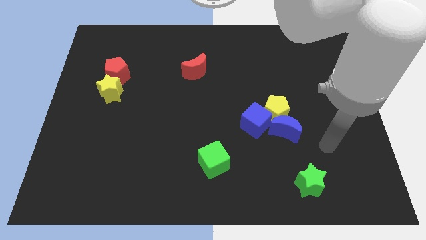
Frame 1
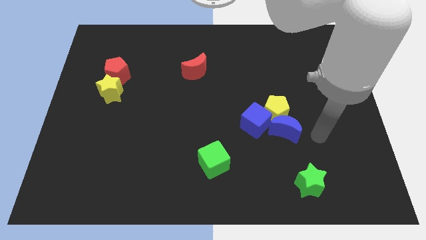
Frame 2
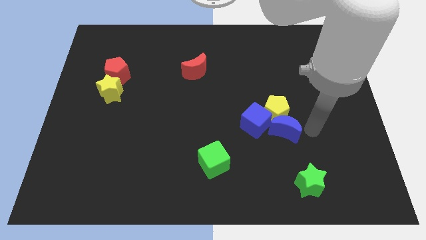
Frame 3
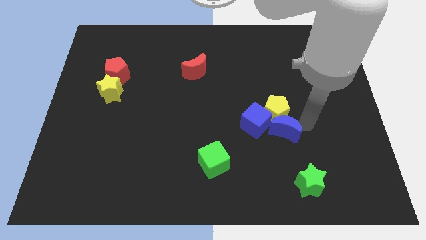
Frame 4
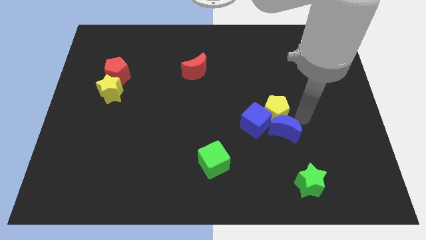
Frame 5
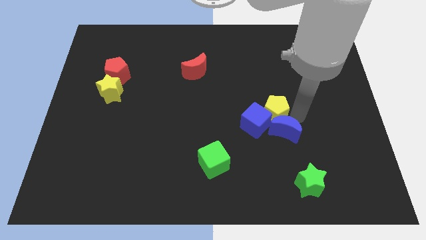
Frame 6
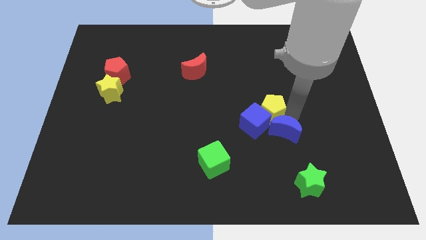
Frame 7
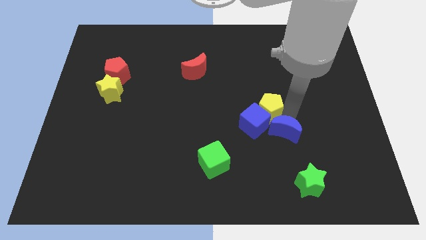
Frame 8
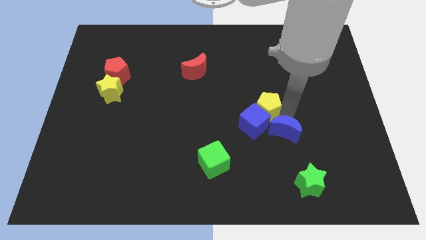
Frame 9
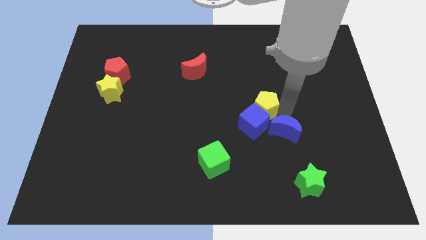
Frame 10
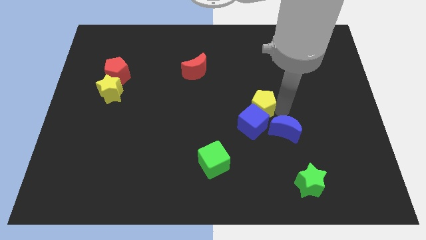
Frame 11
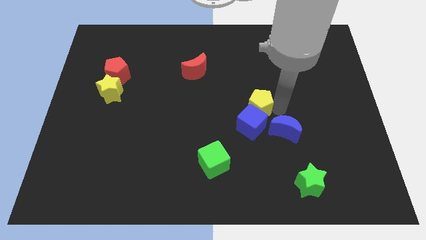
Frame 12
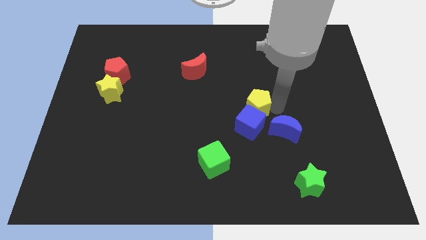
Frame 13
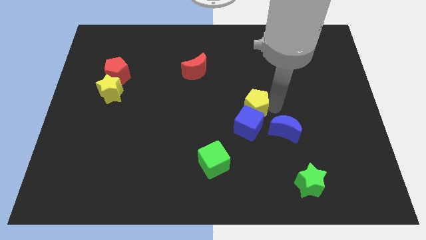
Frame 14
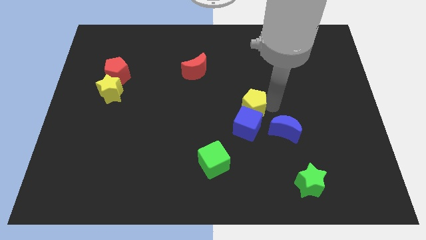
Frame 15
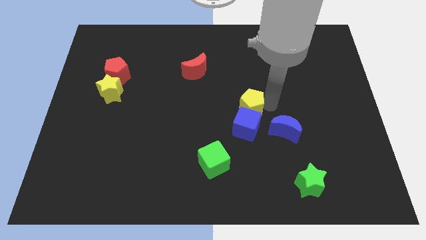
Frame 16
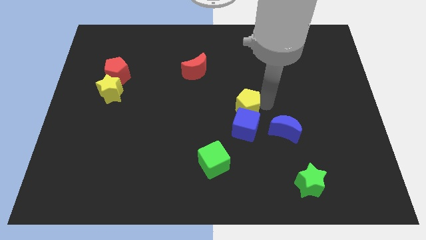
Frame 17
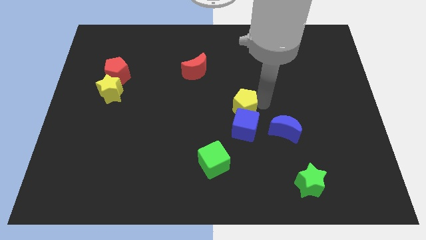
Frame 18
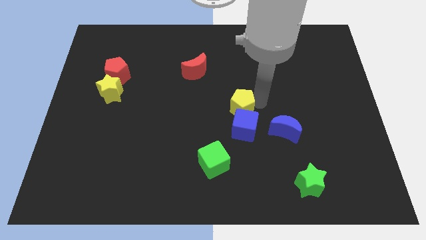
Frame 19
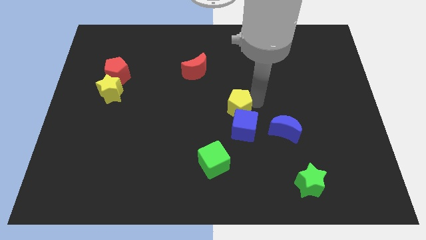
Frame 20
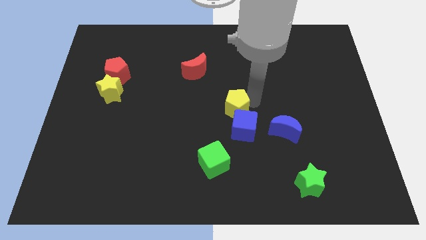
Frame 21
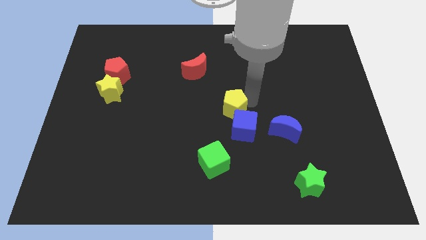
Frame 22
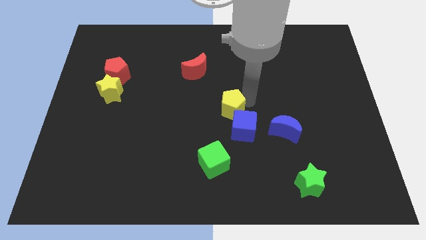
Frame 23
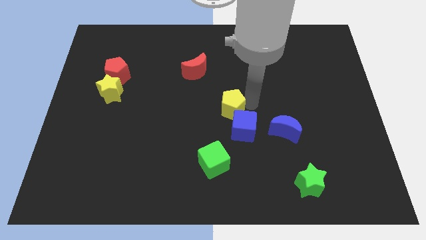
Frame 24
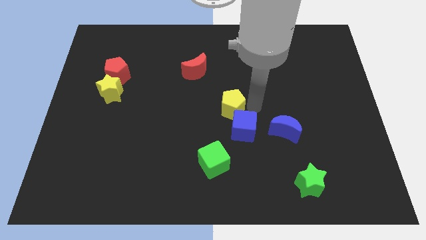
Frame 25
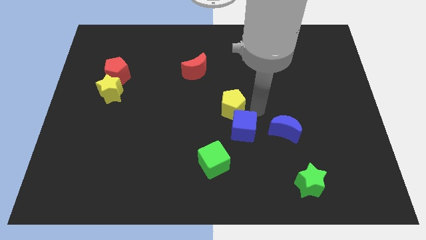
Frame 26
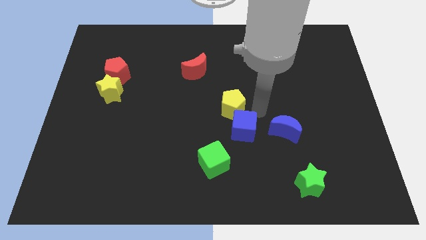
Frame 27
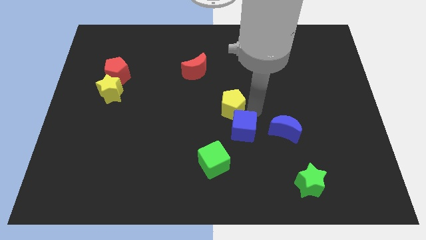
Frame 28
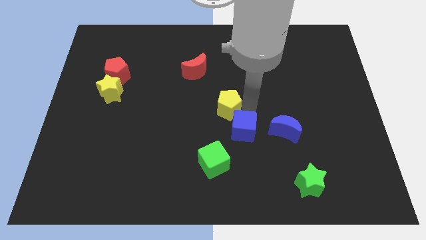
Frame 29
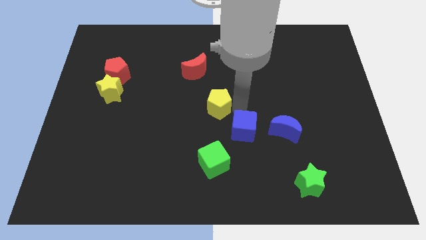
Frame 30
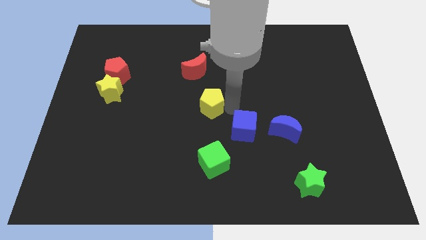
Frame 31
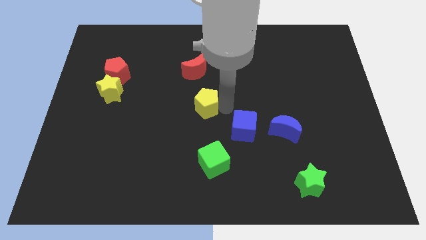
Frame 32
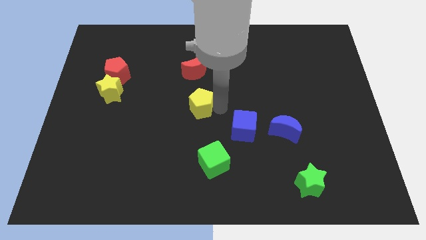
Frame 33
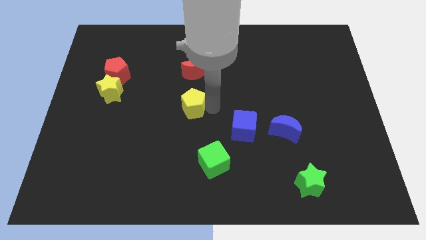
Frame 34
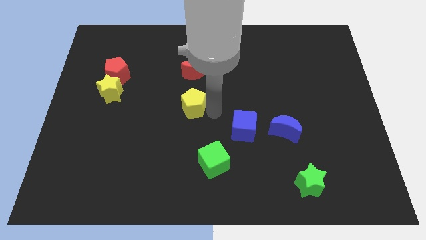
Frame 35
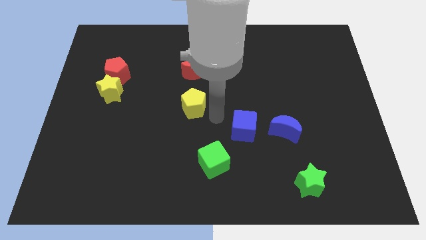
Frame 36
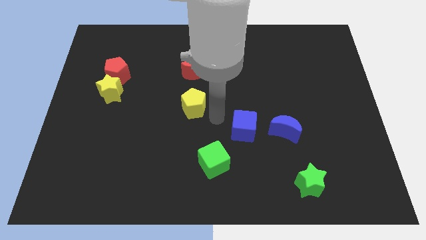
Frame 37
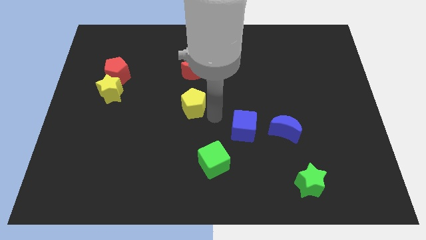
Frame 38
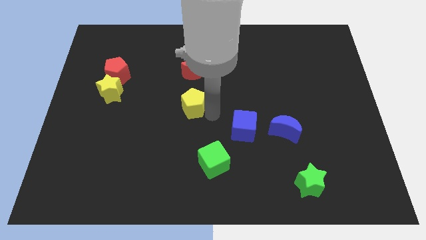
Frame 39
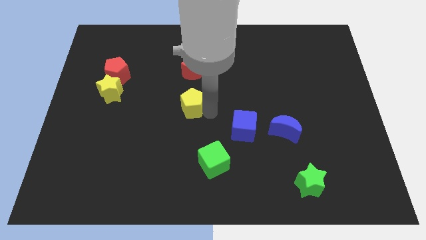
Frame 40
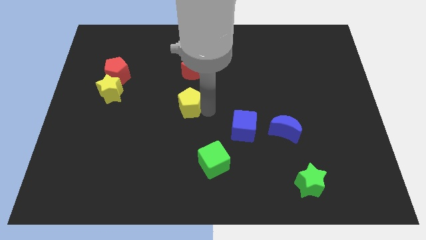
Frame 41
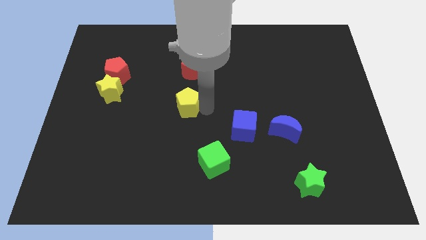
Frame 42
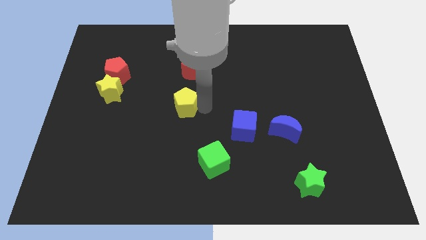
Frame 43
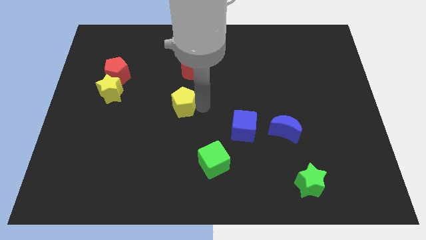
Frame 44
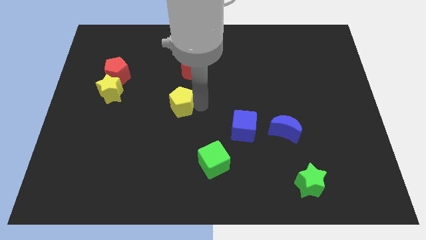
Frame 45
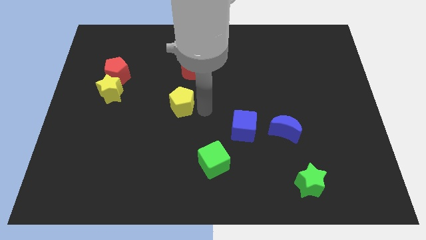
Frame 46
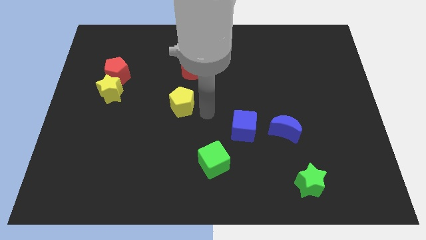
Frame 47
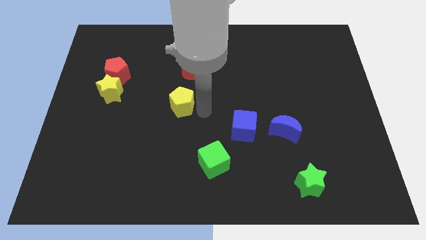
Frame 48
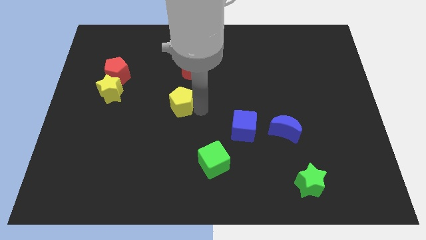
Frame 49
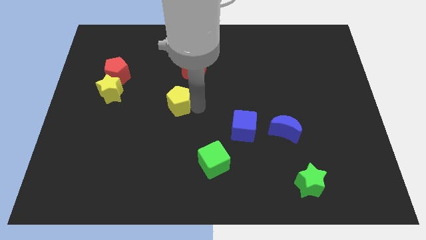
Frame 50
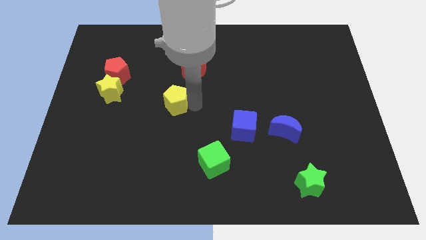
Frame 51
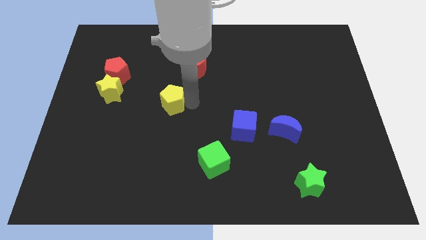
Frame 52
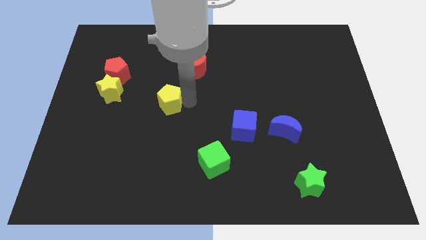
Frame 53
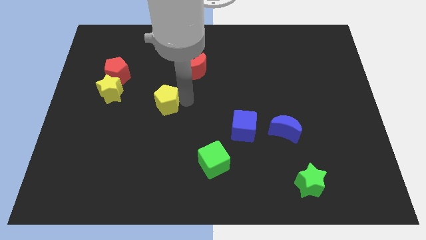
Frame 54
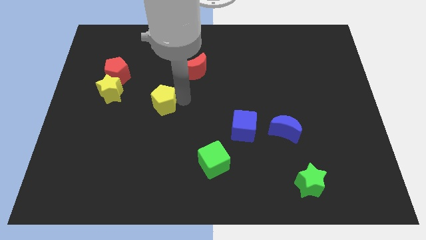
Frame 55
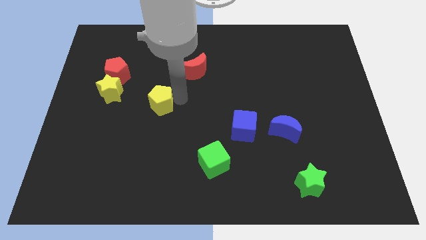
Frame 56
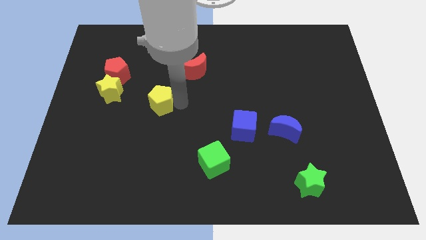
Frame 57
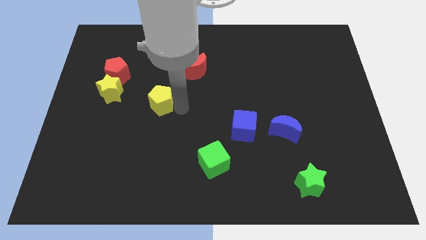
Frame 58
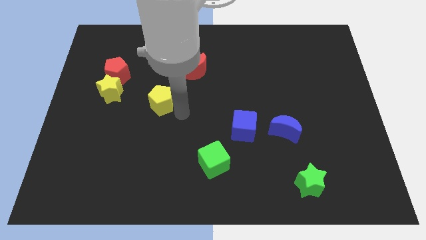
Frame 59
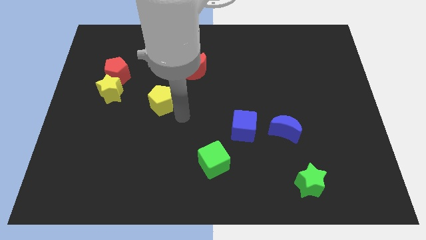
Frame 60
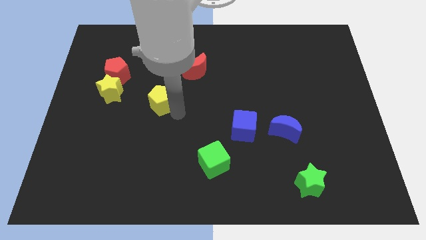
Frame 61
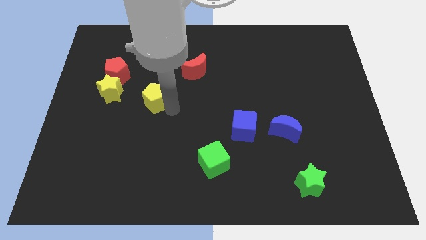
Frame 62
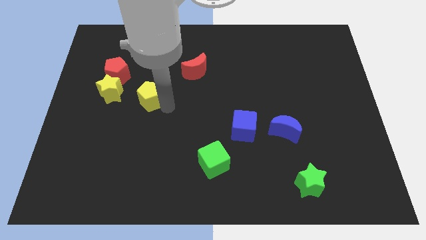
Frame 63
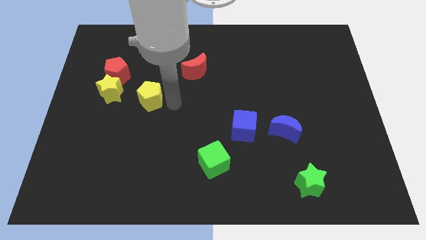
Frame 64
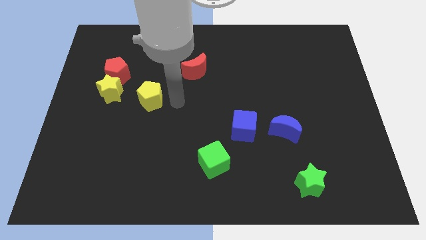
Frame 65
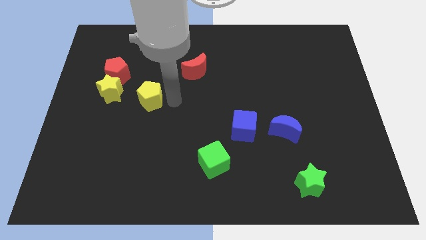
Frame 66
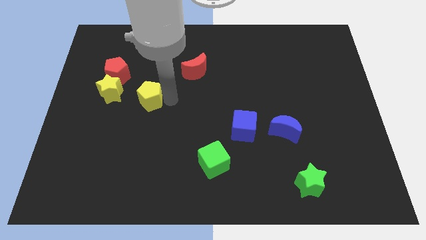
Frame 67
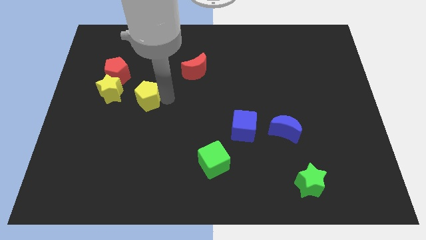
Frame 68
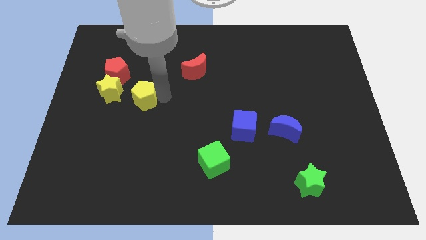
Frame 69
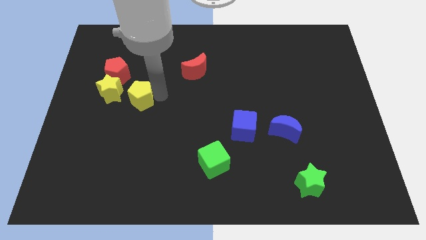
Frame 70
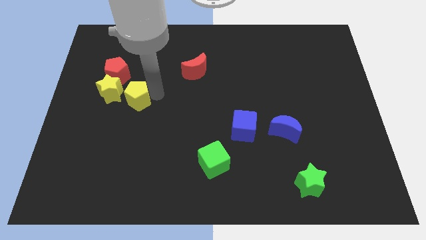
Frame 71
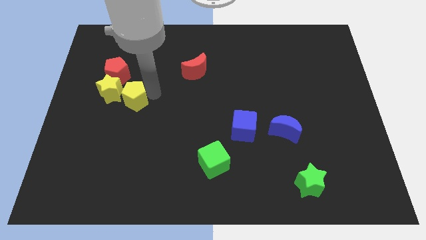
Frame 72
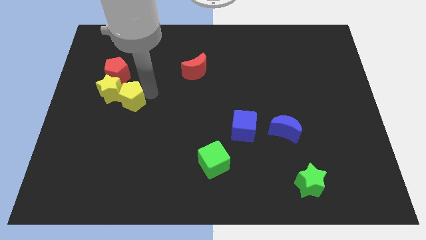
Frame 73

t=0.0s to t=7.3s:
push the yellow pentagon towards the yellow star
